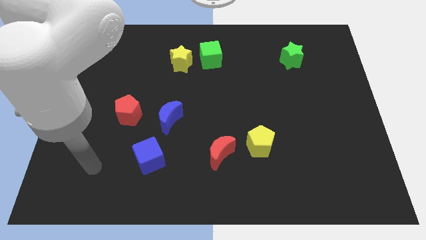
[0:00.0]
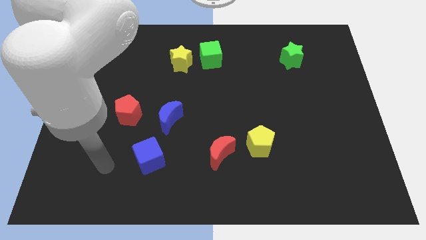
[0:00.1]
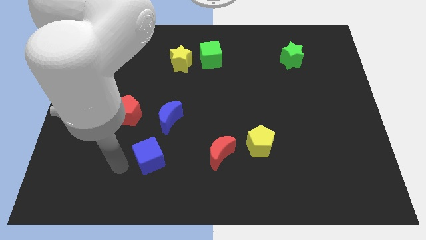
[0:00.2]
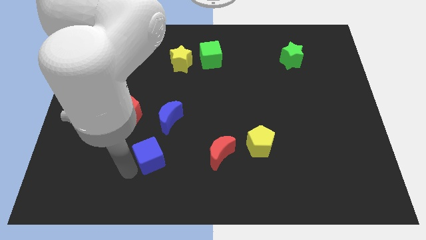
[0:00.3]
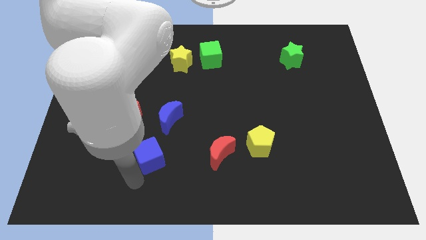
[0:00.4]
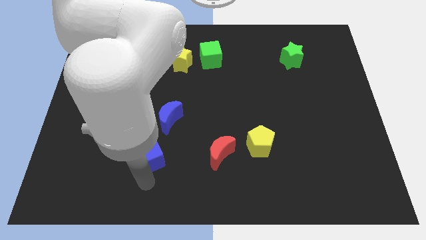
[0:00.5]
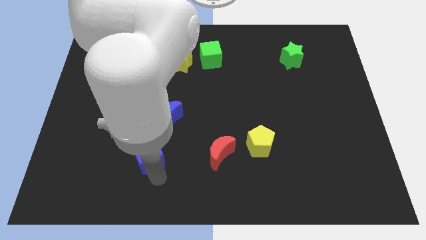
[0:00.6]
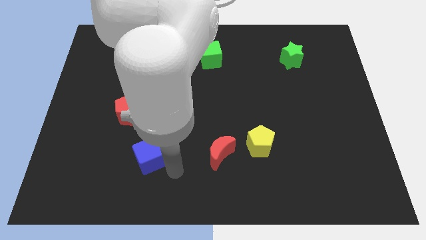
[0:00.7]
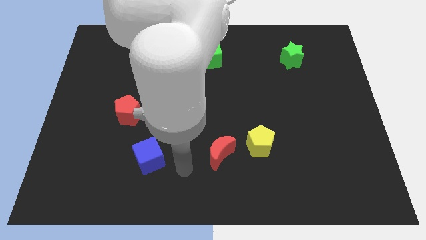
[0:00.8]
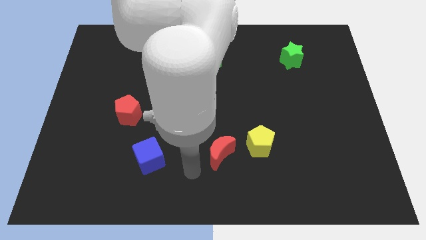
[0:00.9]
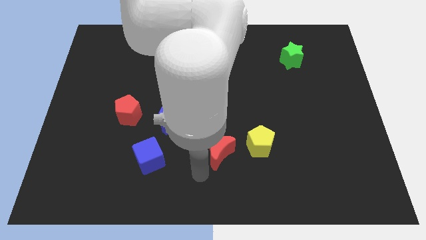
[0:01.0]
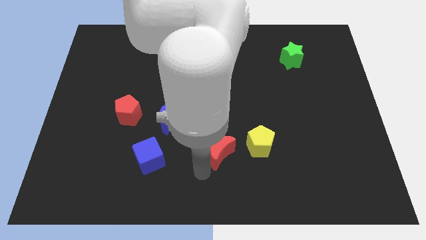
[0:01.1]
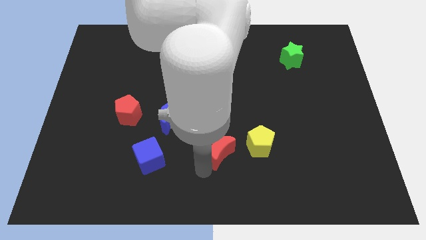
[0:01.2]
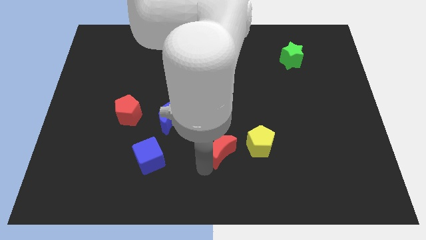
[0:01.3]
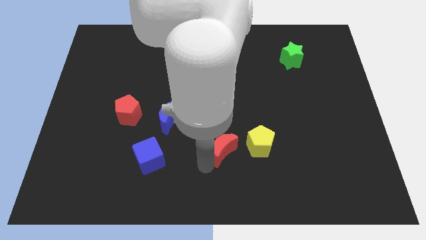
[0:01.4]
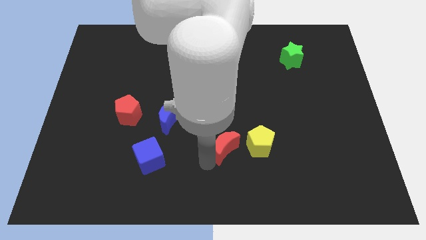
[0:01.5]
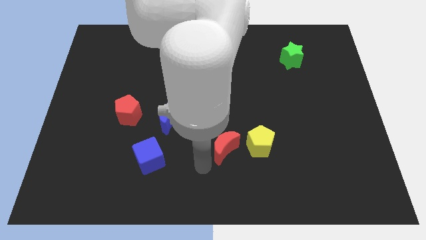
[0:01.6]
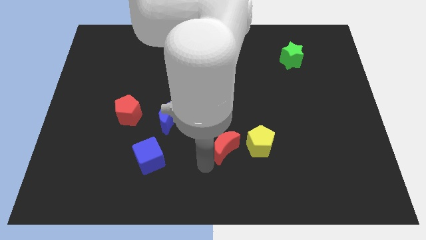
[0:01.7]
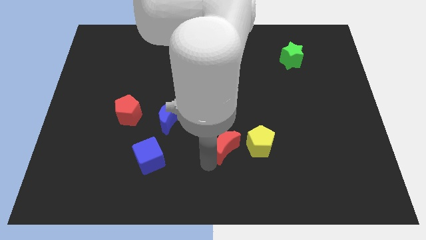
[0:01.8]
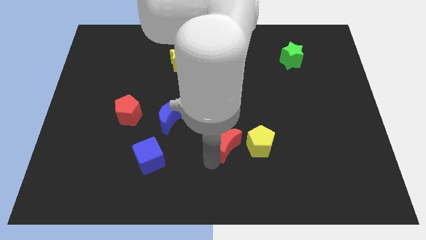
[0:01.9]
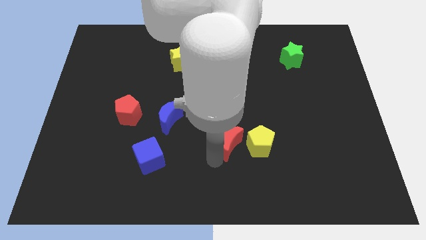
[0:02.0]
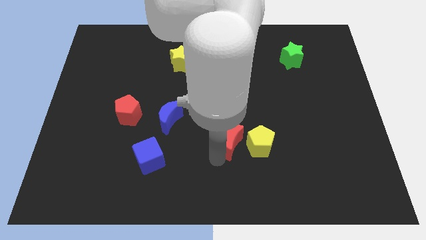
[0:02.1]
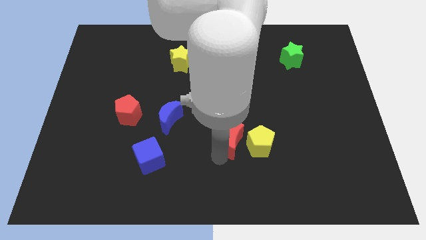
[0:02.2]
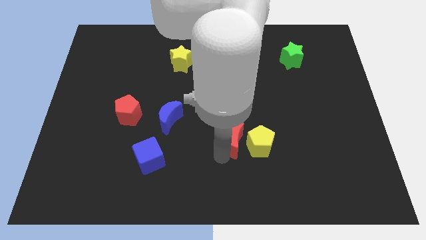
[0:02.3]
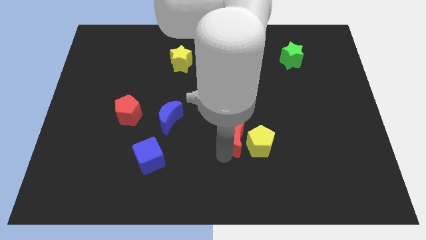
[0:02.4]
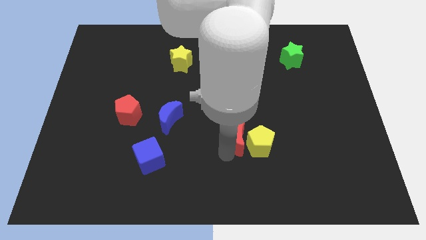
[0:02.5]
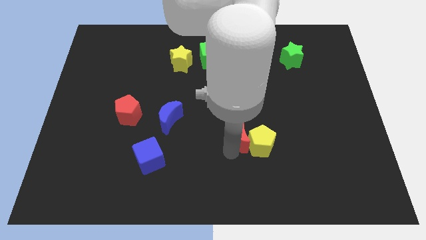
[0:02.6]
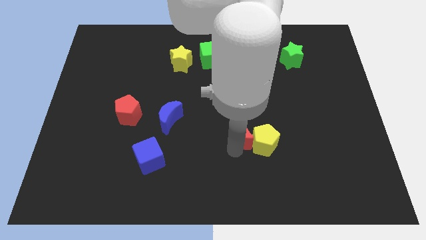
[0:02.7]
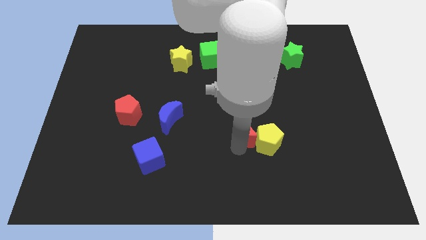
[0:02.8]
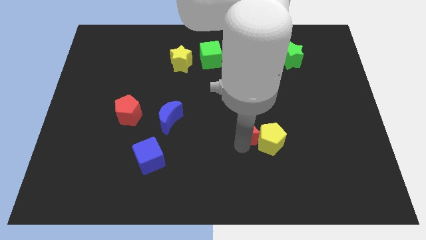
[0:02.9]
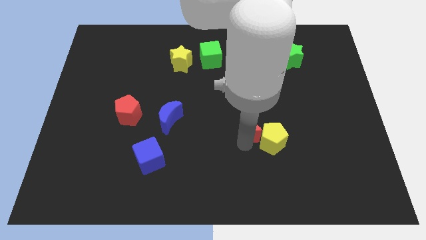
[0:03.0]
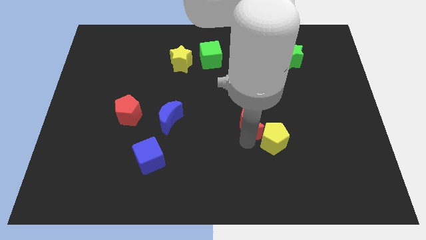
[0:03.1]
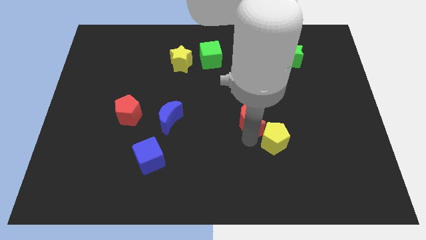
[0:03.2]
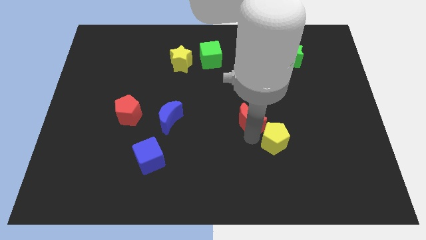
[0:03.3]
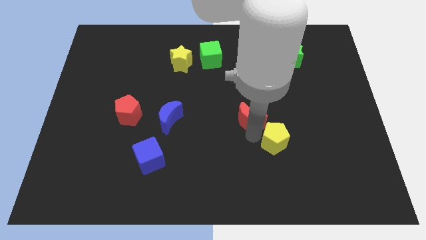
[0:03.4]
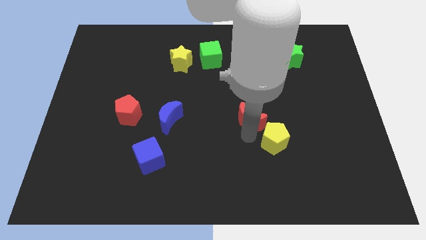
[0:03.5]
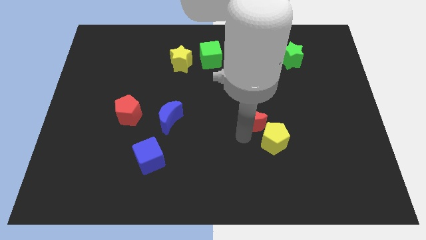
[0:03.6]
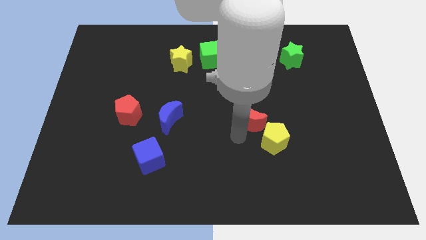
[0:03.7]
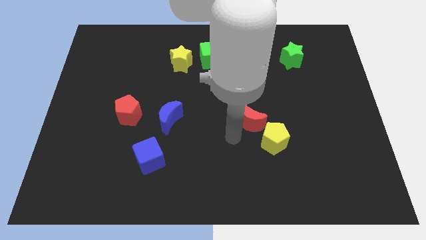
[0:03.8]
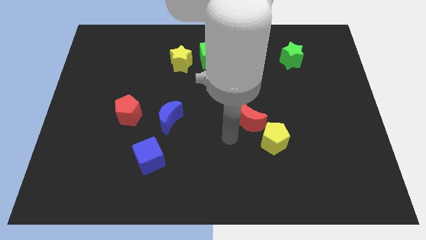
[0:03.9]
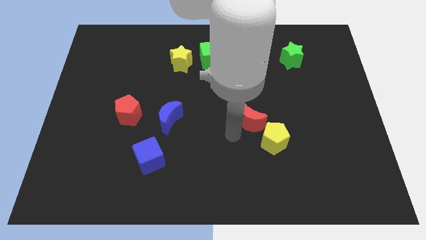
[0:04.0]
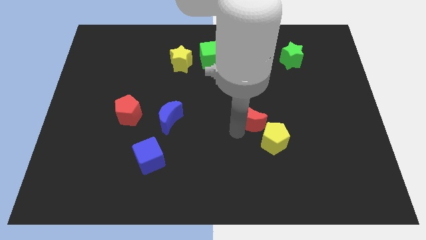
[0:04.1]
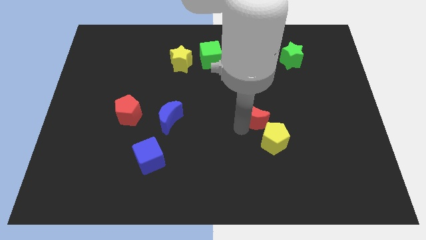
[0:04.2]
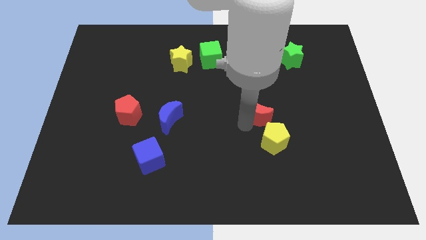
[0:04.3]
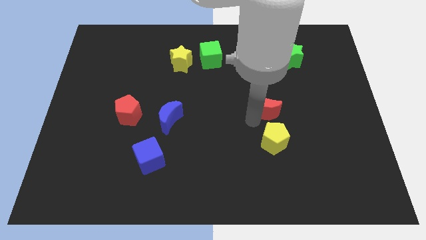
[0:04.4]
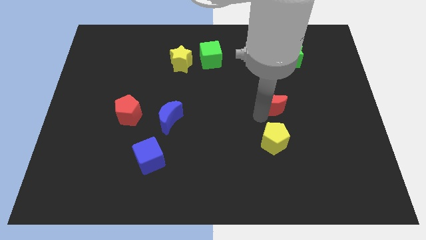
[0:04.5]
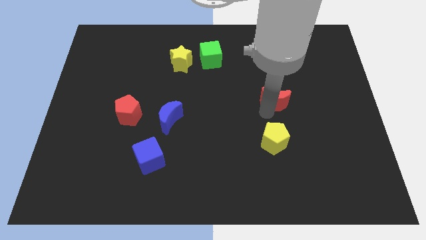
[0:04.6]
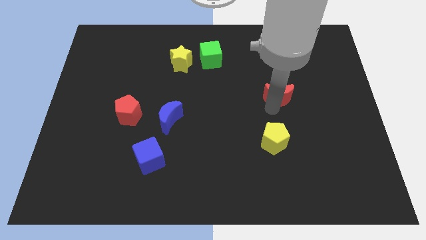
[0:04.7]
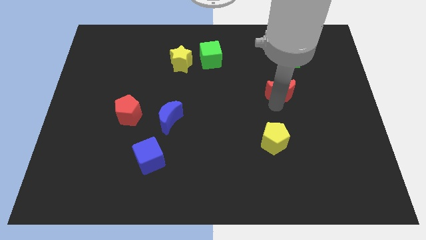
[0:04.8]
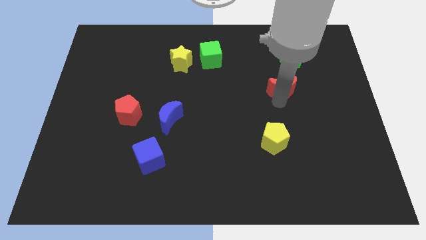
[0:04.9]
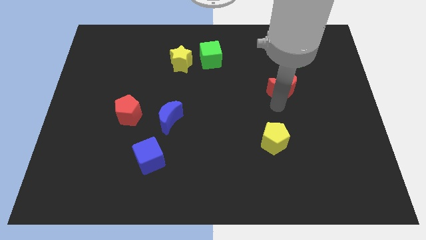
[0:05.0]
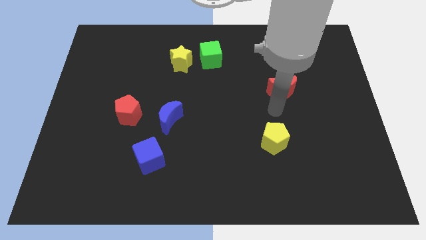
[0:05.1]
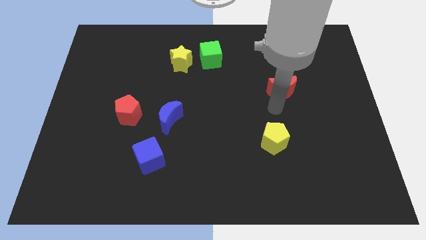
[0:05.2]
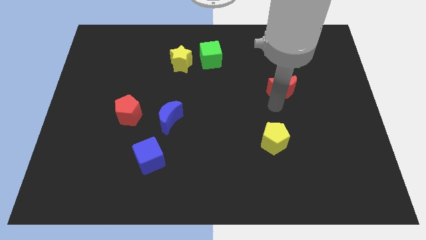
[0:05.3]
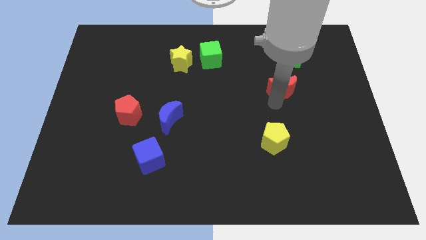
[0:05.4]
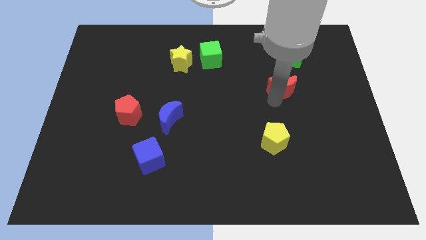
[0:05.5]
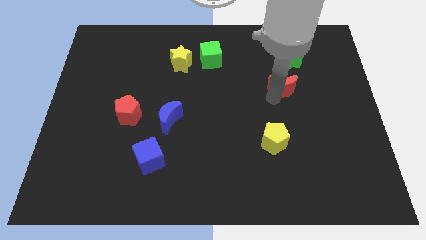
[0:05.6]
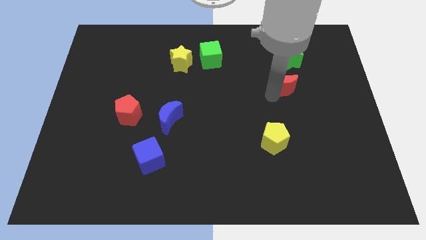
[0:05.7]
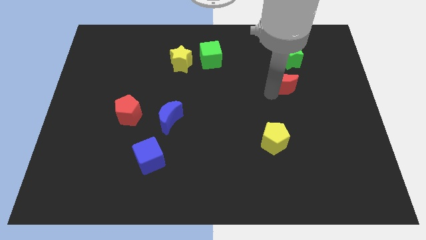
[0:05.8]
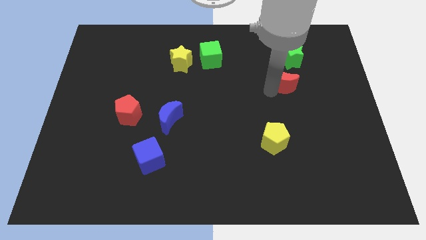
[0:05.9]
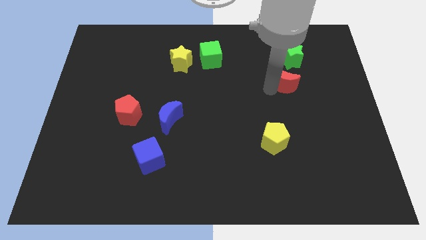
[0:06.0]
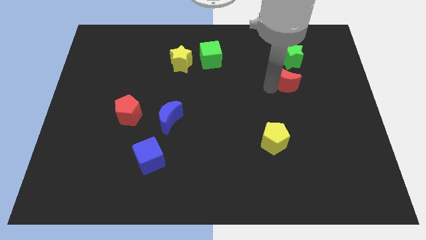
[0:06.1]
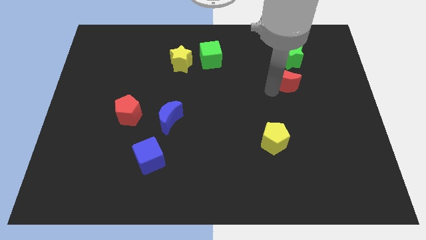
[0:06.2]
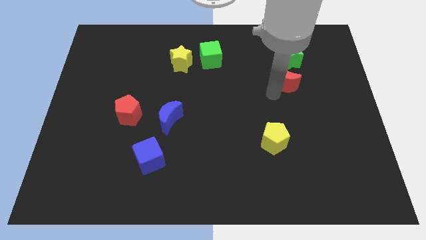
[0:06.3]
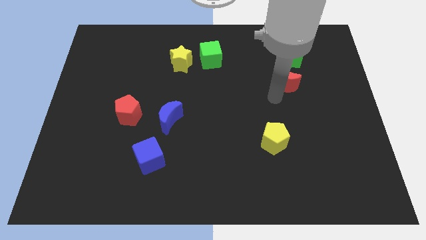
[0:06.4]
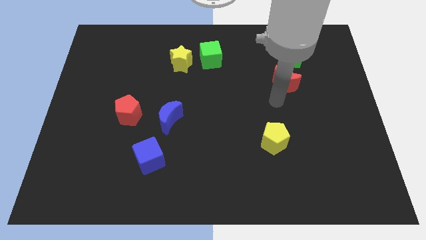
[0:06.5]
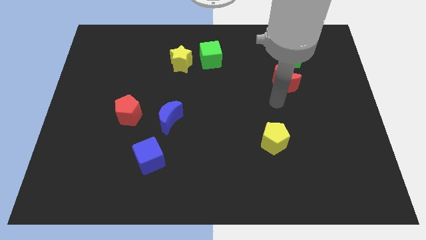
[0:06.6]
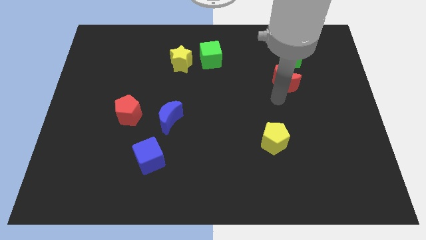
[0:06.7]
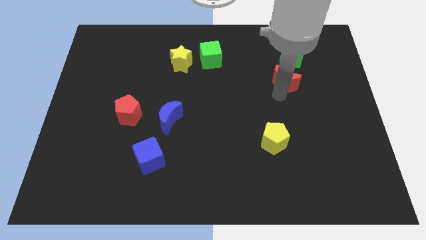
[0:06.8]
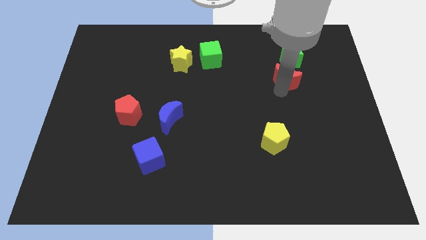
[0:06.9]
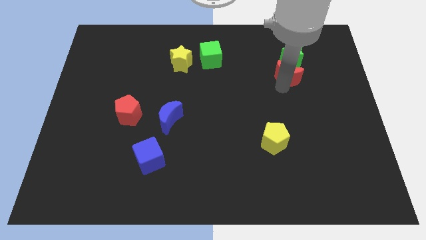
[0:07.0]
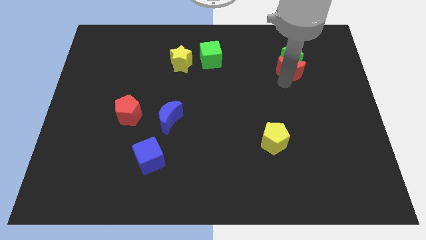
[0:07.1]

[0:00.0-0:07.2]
put the red moon close to the green star

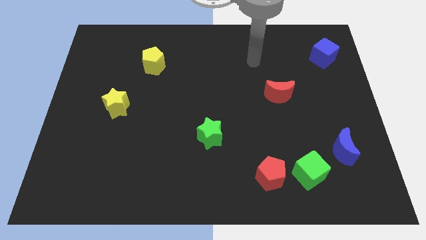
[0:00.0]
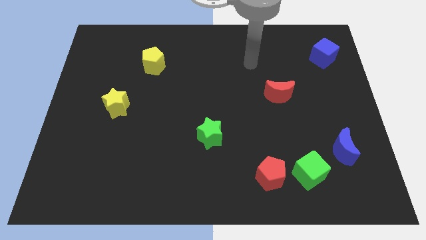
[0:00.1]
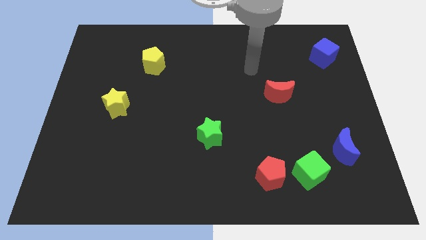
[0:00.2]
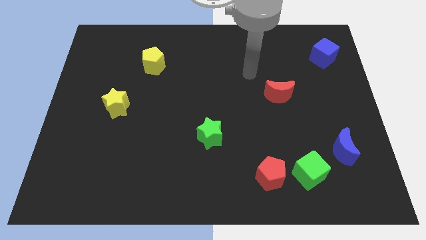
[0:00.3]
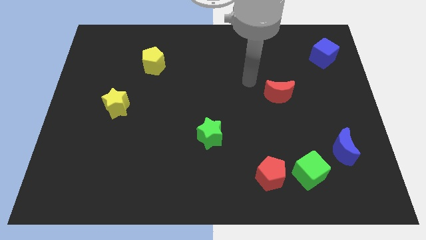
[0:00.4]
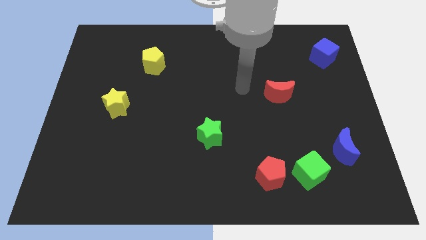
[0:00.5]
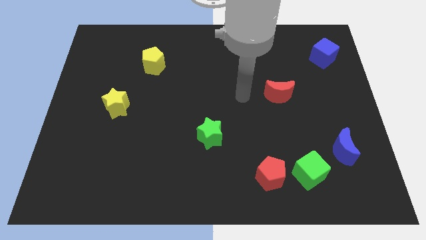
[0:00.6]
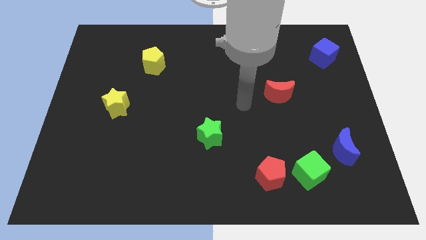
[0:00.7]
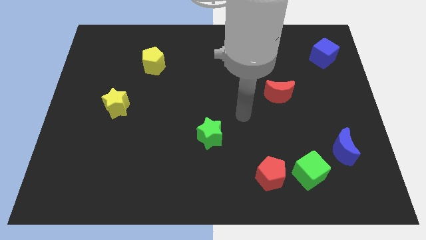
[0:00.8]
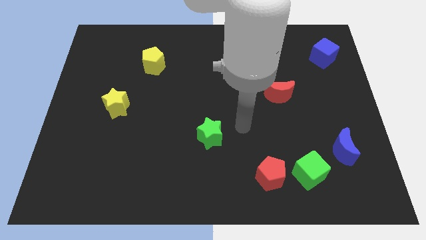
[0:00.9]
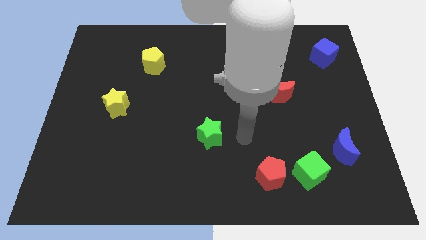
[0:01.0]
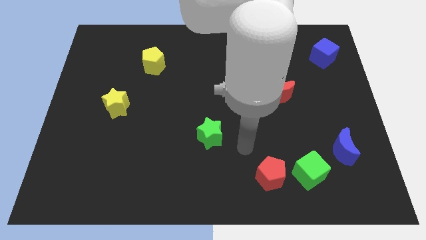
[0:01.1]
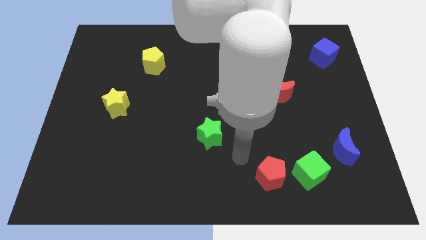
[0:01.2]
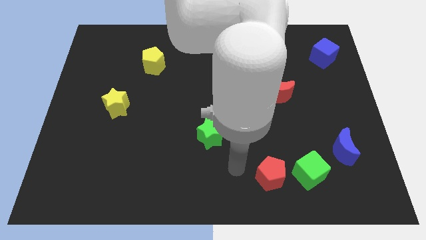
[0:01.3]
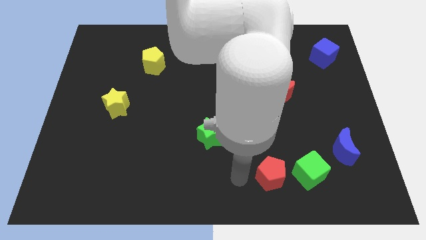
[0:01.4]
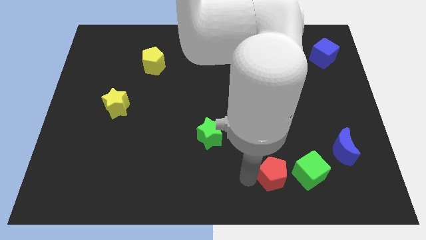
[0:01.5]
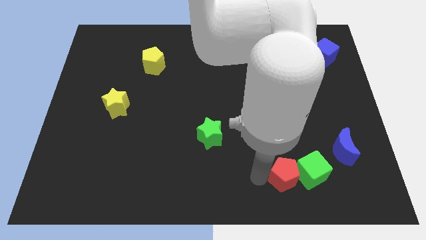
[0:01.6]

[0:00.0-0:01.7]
push the red pentagon towards the green cube
